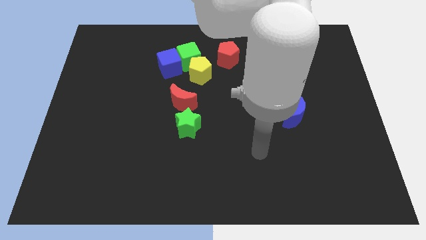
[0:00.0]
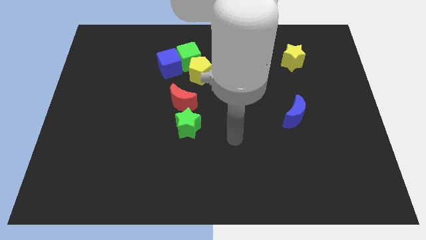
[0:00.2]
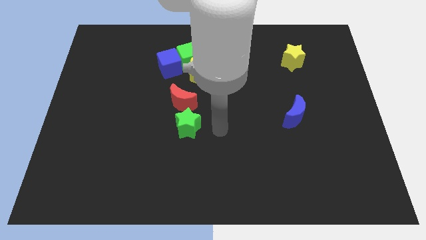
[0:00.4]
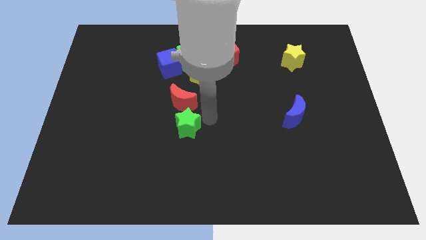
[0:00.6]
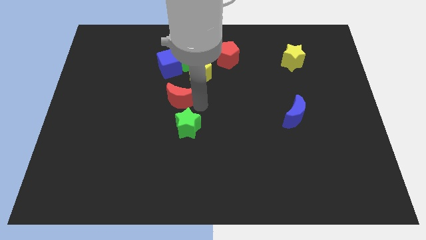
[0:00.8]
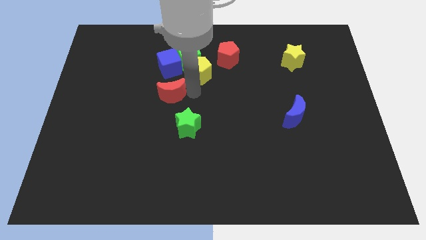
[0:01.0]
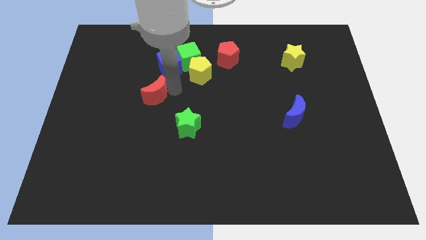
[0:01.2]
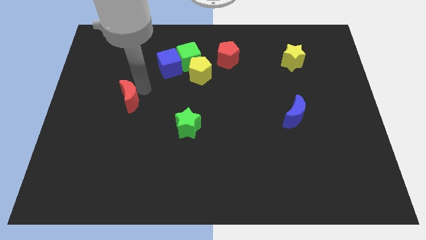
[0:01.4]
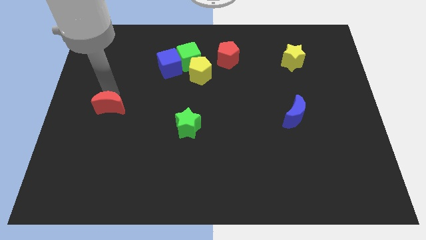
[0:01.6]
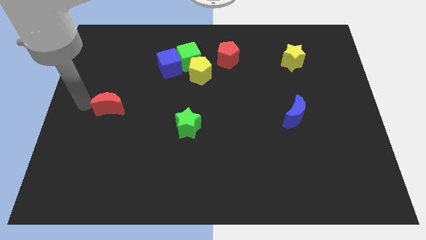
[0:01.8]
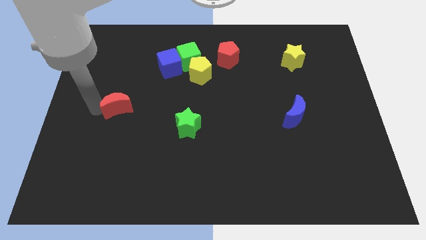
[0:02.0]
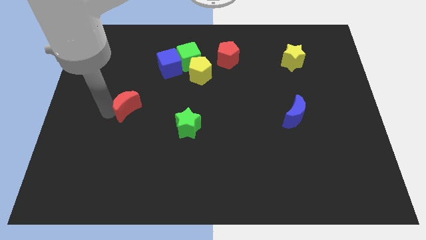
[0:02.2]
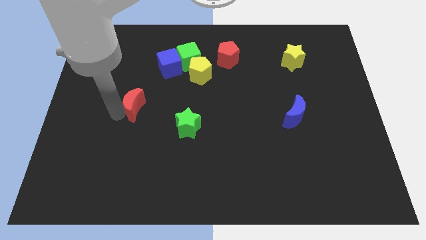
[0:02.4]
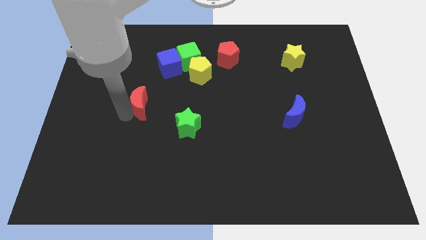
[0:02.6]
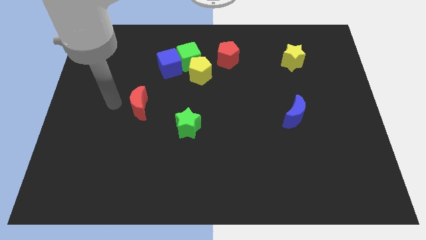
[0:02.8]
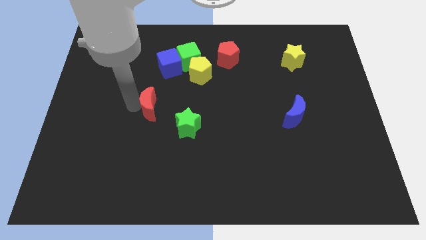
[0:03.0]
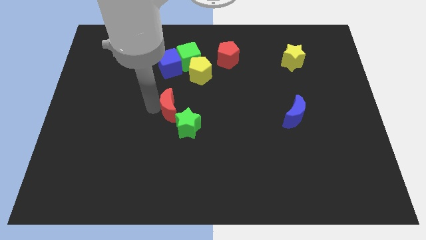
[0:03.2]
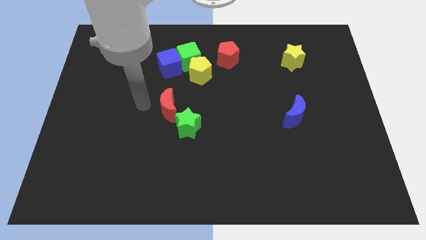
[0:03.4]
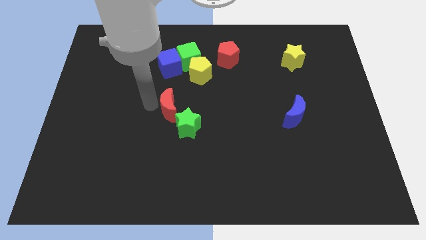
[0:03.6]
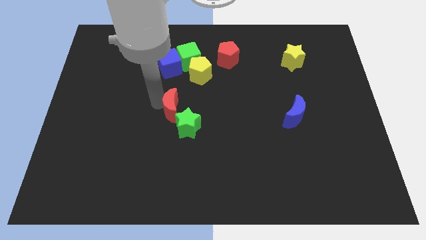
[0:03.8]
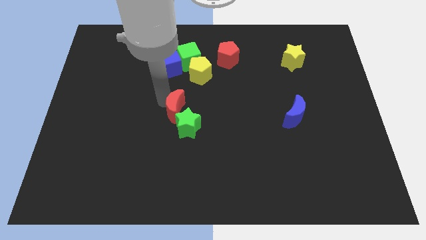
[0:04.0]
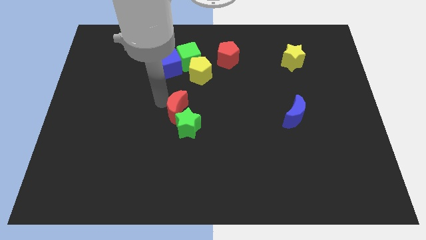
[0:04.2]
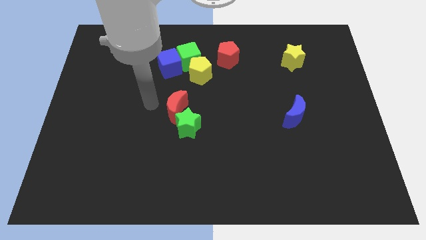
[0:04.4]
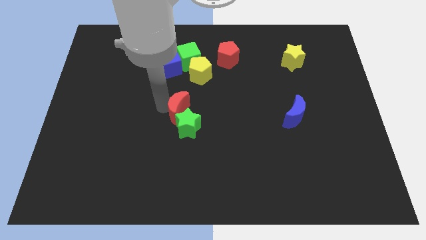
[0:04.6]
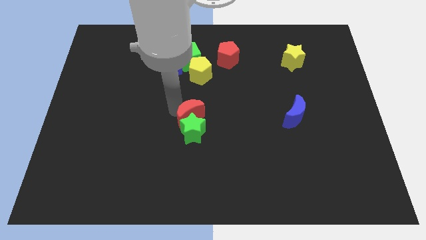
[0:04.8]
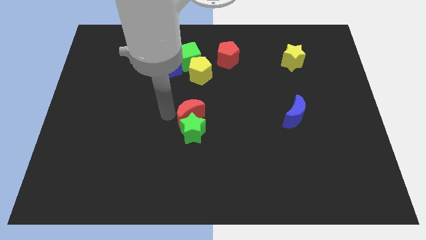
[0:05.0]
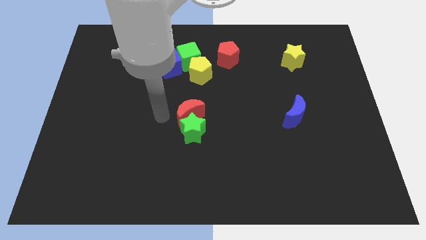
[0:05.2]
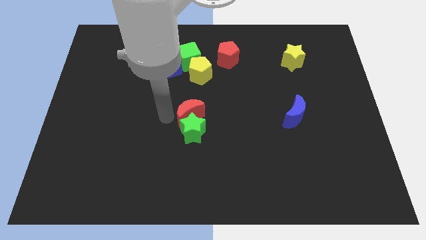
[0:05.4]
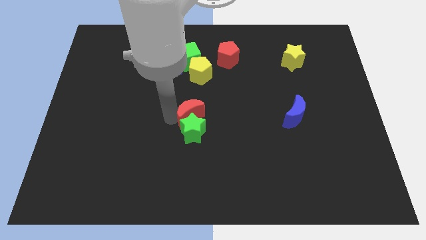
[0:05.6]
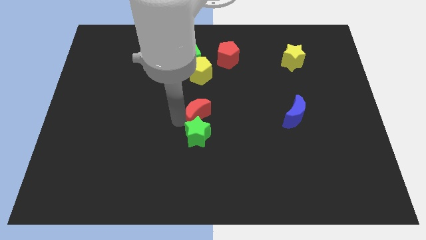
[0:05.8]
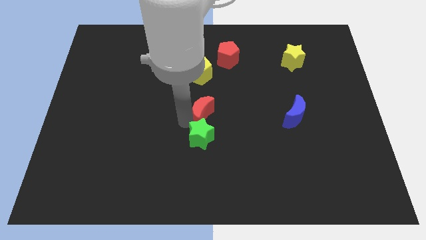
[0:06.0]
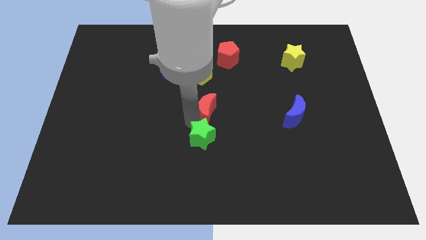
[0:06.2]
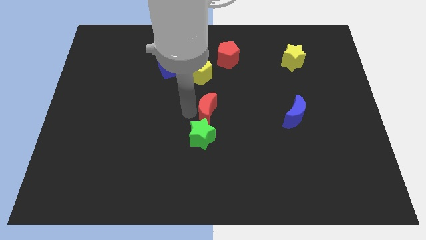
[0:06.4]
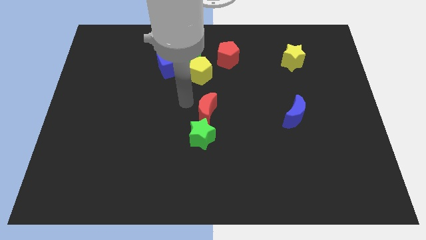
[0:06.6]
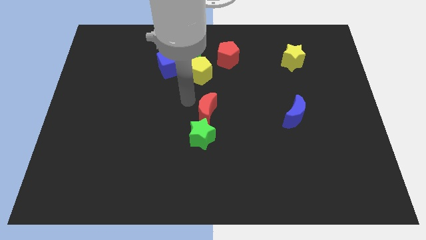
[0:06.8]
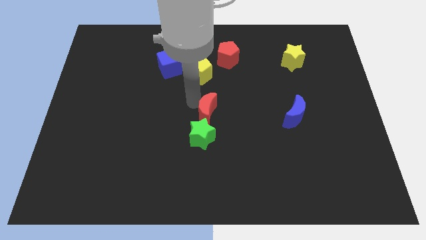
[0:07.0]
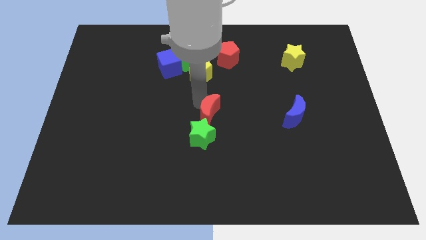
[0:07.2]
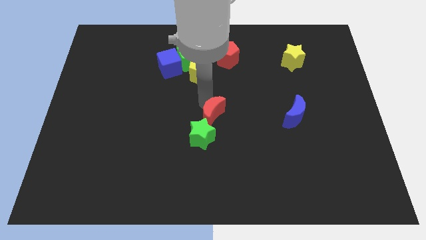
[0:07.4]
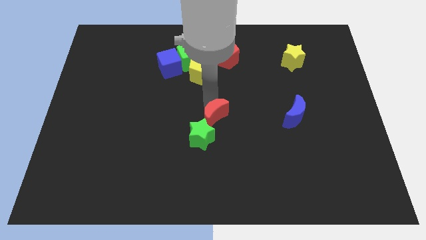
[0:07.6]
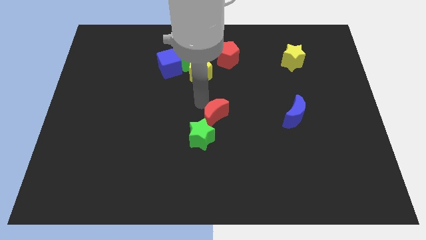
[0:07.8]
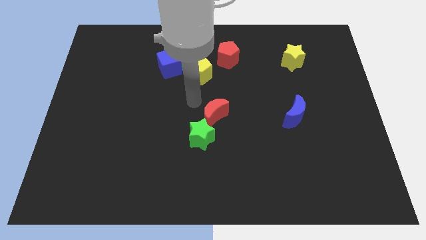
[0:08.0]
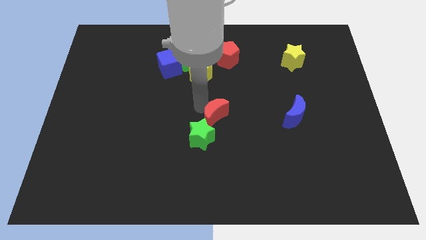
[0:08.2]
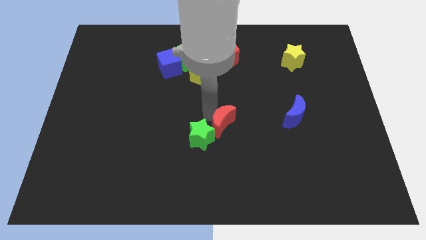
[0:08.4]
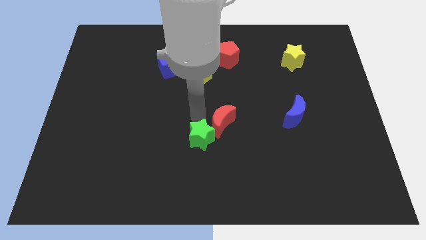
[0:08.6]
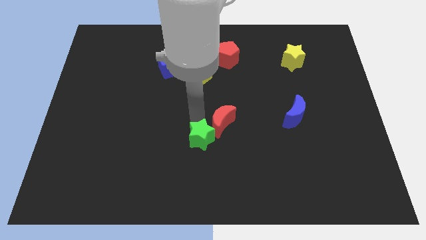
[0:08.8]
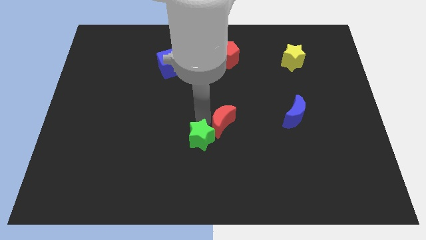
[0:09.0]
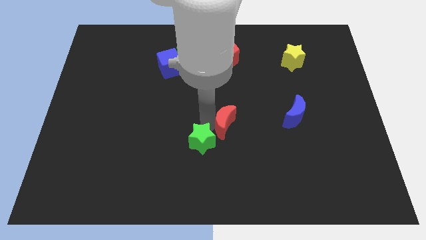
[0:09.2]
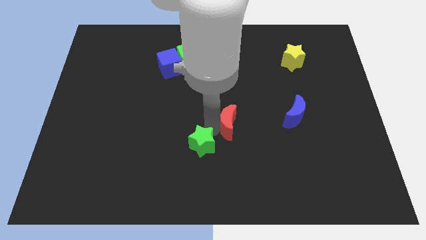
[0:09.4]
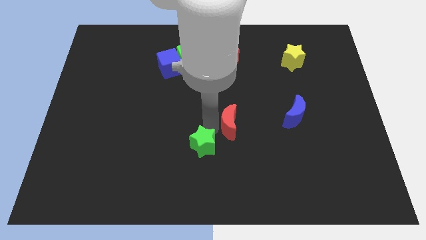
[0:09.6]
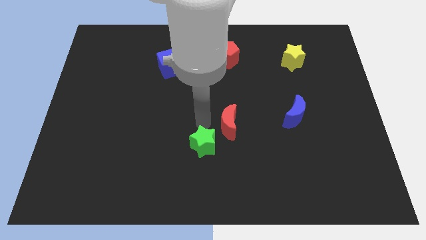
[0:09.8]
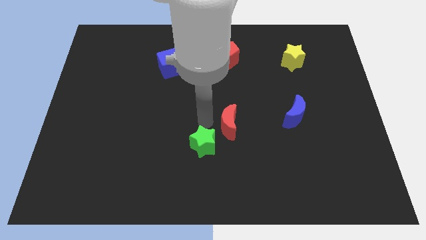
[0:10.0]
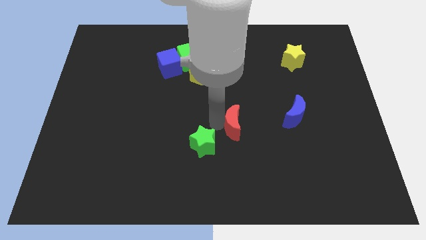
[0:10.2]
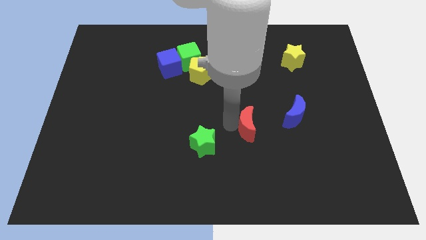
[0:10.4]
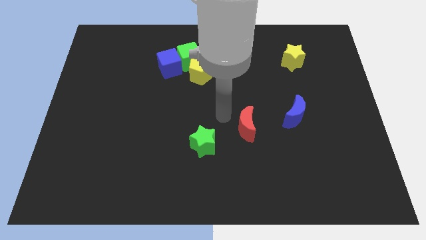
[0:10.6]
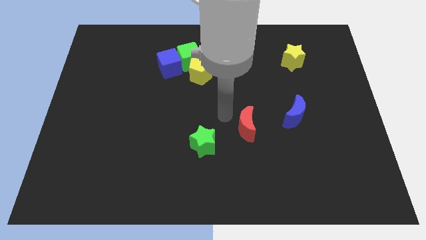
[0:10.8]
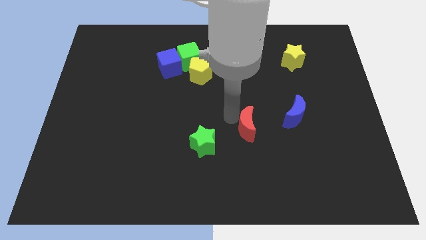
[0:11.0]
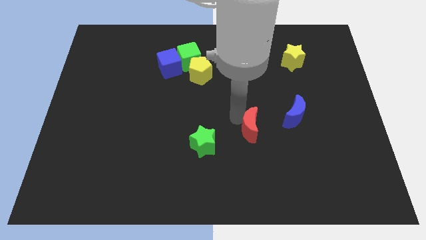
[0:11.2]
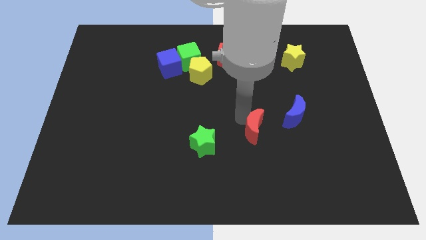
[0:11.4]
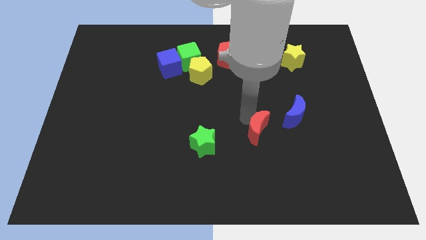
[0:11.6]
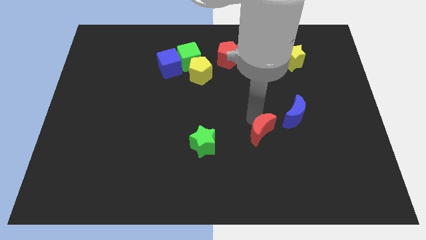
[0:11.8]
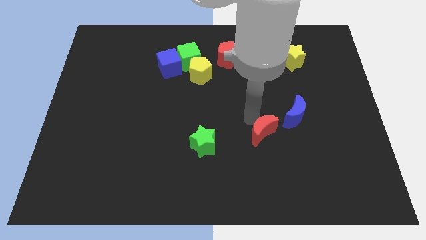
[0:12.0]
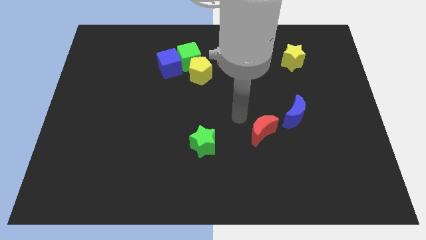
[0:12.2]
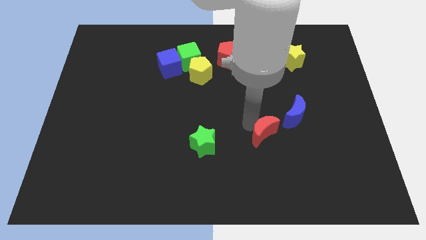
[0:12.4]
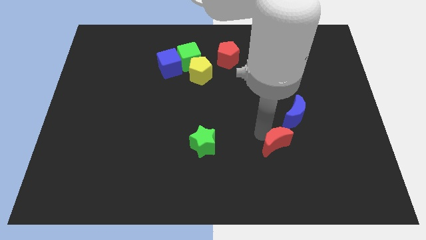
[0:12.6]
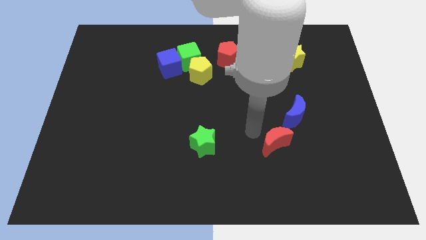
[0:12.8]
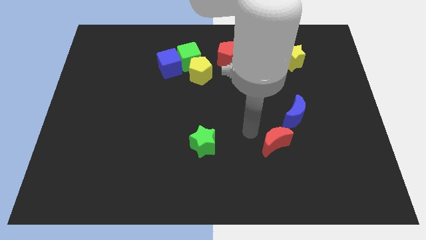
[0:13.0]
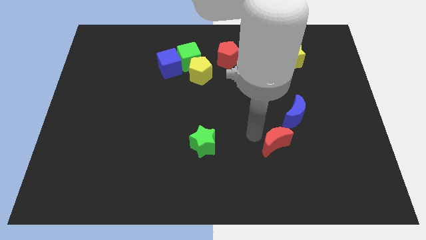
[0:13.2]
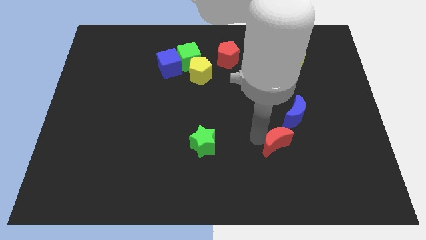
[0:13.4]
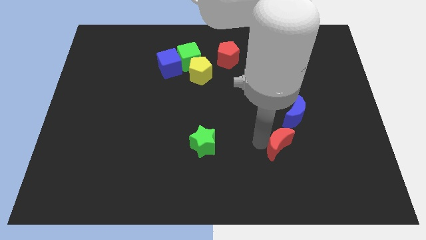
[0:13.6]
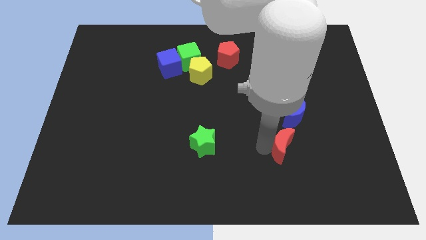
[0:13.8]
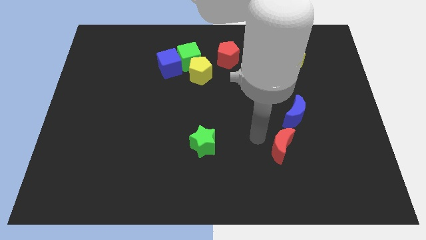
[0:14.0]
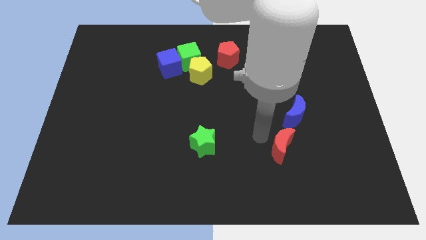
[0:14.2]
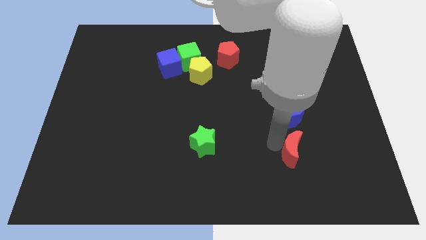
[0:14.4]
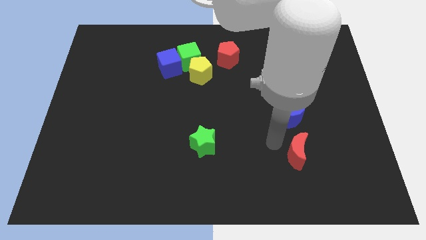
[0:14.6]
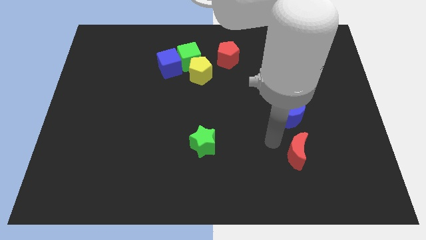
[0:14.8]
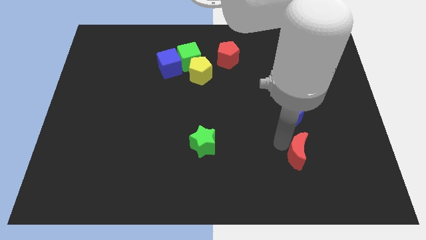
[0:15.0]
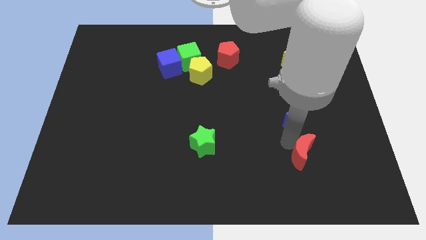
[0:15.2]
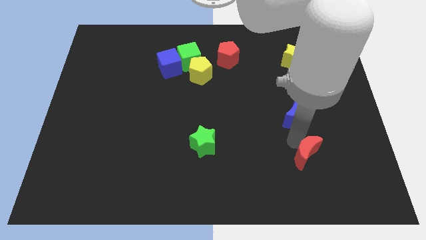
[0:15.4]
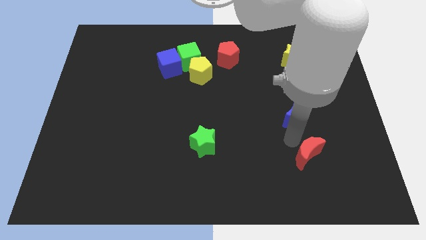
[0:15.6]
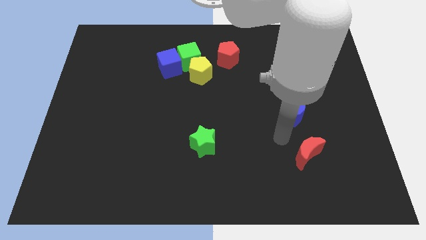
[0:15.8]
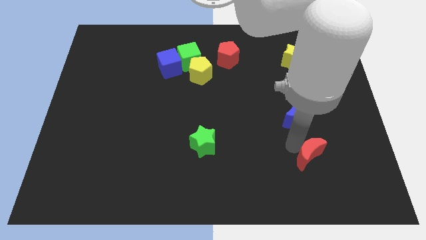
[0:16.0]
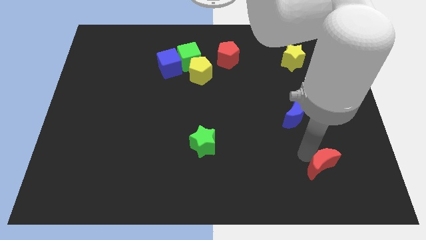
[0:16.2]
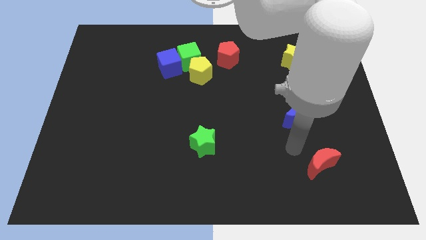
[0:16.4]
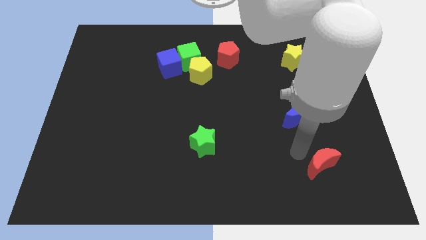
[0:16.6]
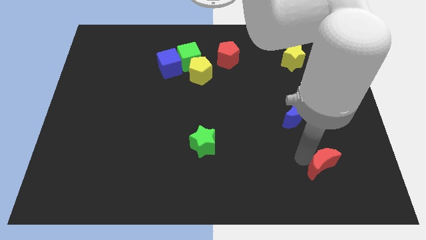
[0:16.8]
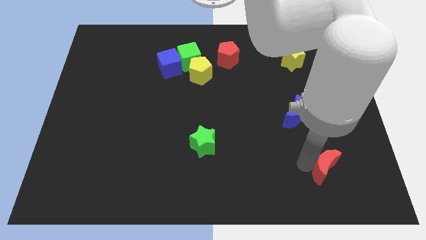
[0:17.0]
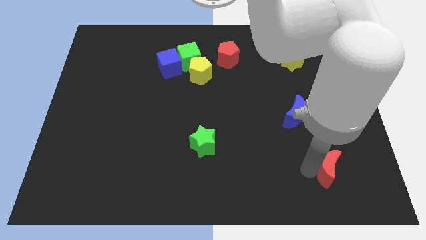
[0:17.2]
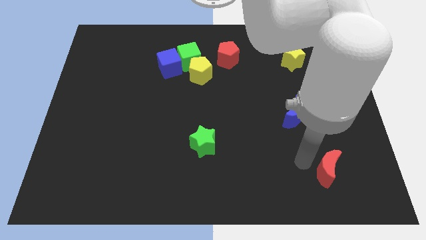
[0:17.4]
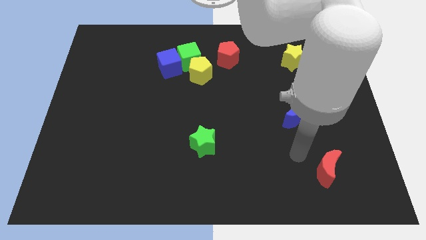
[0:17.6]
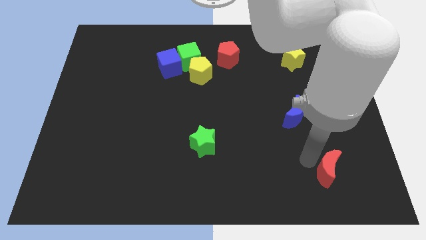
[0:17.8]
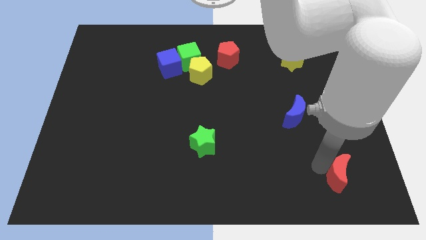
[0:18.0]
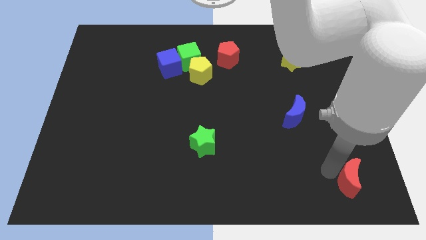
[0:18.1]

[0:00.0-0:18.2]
push the red moon to the bottom right
